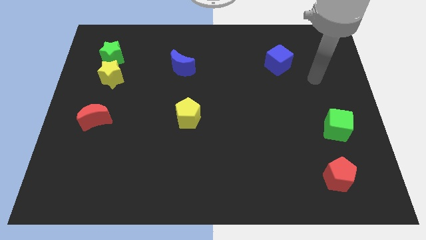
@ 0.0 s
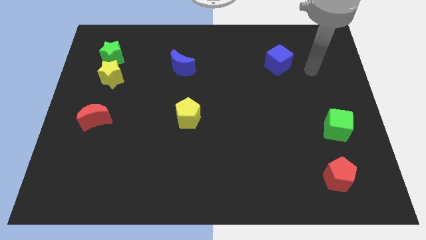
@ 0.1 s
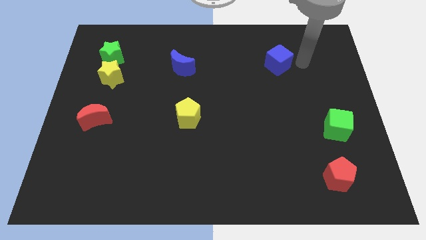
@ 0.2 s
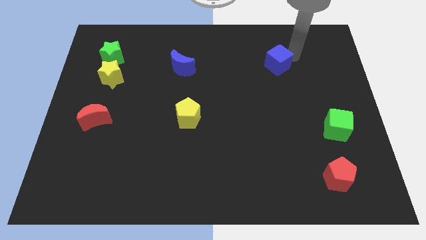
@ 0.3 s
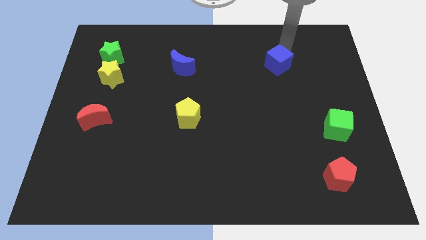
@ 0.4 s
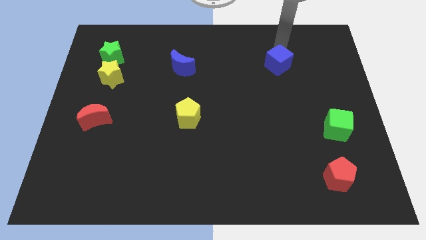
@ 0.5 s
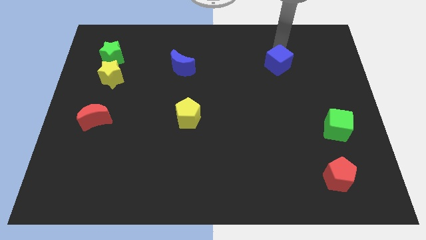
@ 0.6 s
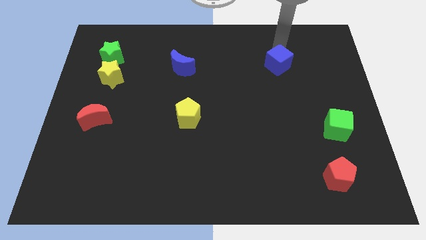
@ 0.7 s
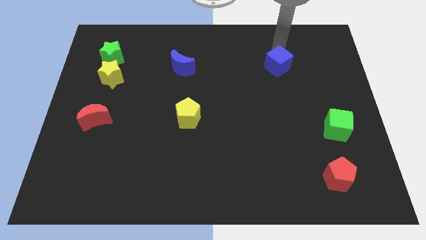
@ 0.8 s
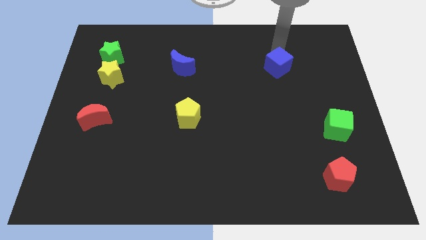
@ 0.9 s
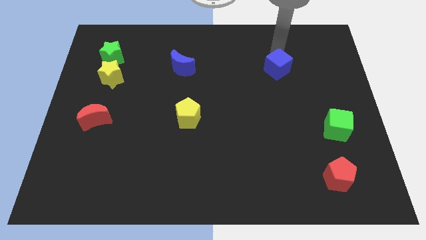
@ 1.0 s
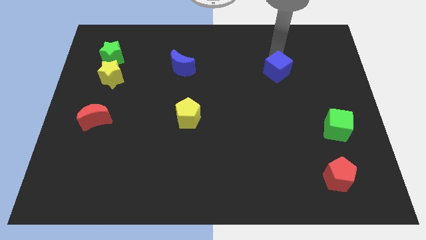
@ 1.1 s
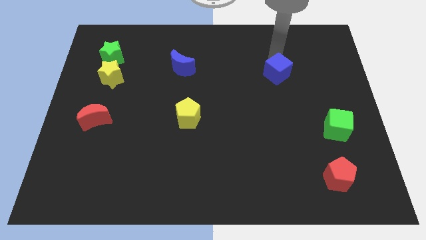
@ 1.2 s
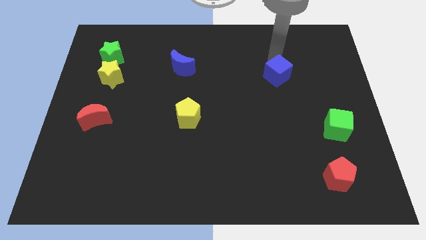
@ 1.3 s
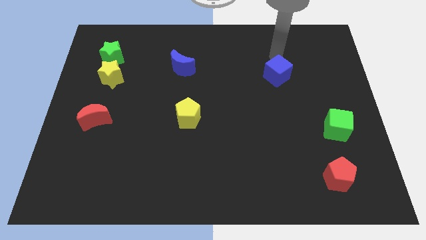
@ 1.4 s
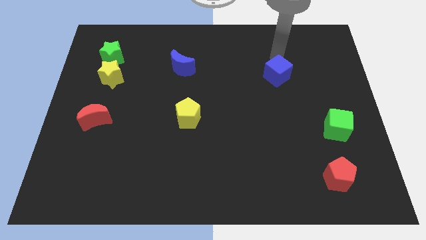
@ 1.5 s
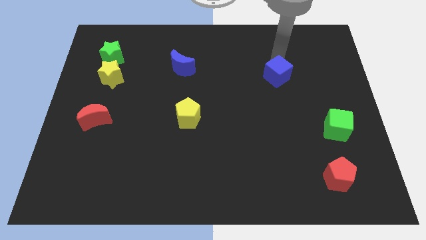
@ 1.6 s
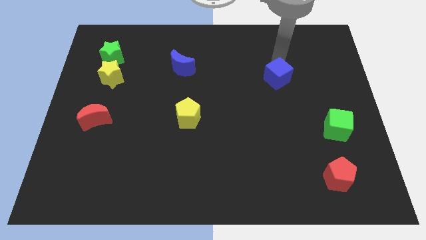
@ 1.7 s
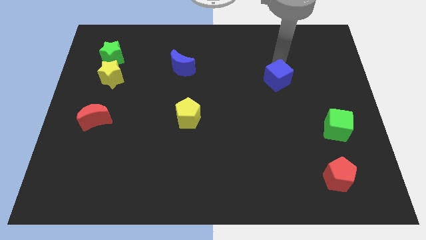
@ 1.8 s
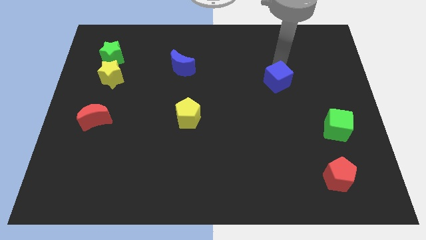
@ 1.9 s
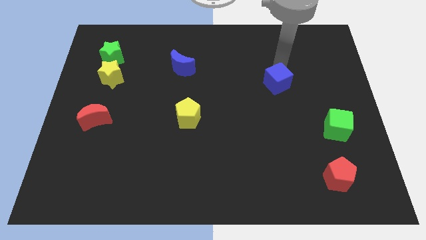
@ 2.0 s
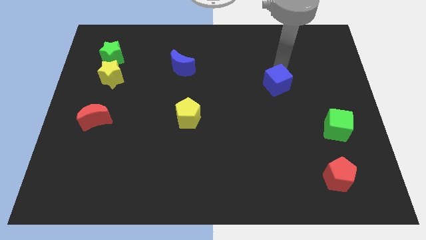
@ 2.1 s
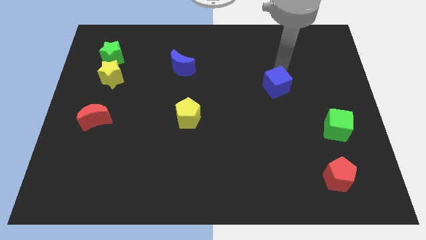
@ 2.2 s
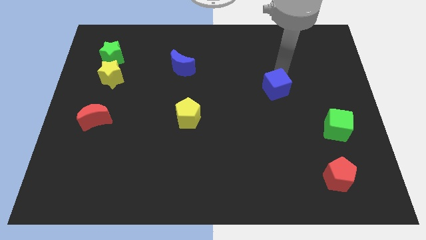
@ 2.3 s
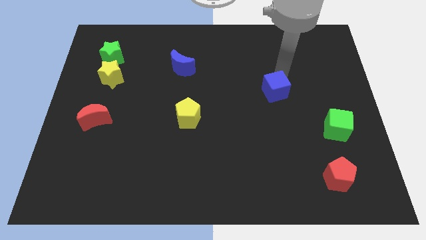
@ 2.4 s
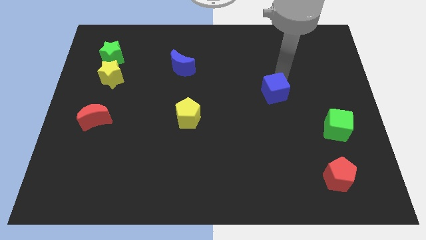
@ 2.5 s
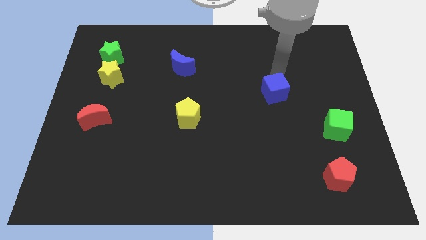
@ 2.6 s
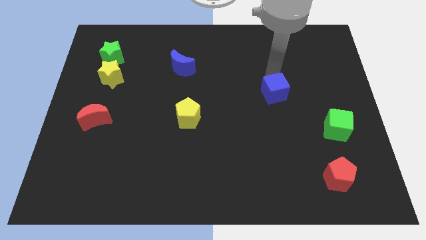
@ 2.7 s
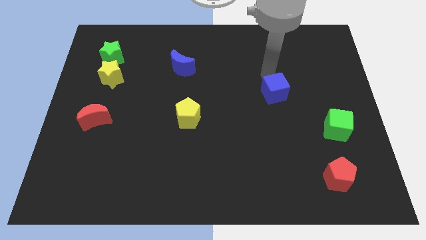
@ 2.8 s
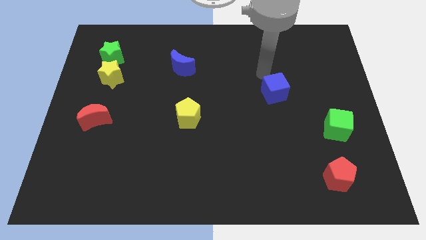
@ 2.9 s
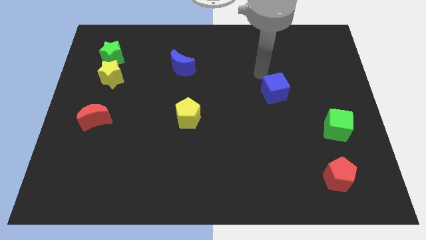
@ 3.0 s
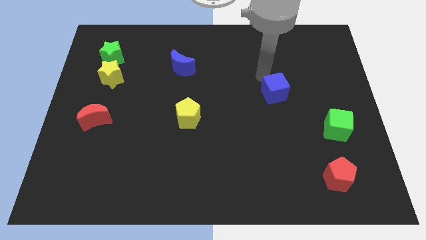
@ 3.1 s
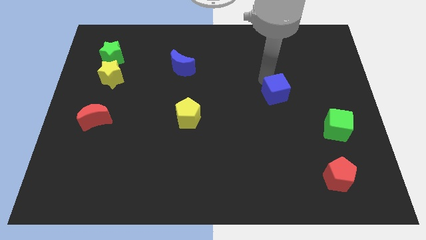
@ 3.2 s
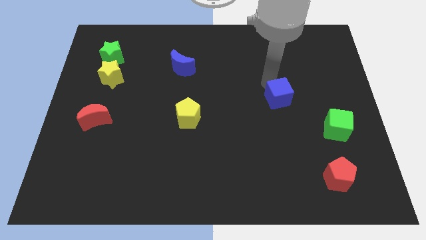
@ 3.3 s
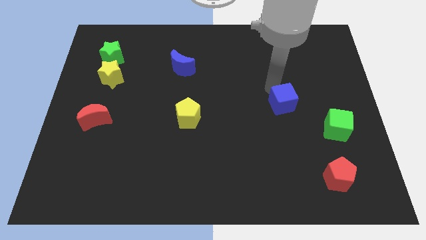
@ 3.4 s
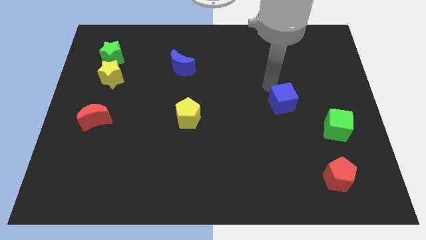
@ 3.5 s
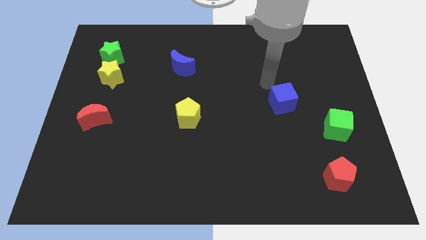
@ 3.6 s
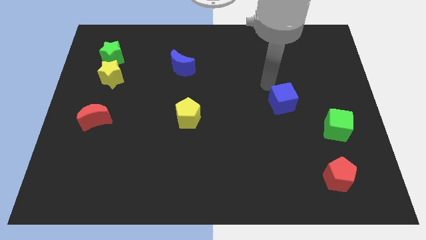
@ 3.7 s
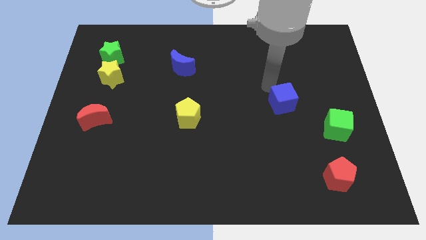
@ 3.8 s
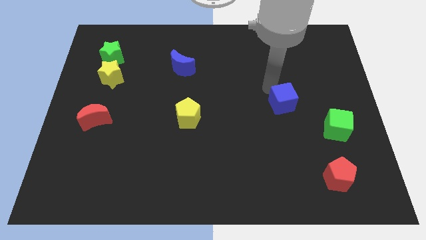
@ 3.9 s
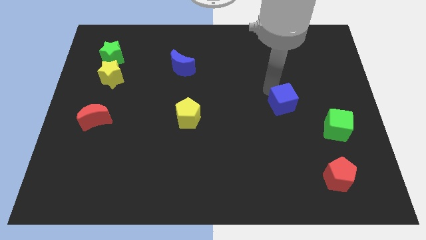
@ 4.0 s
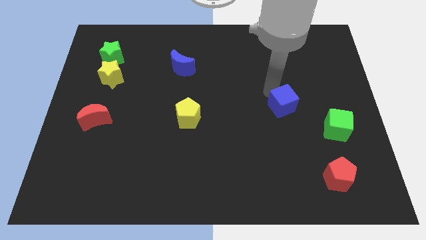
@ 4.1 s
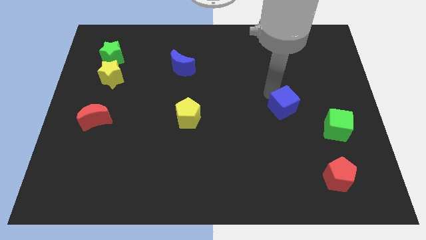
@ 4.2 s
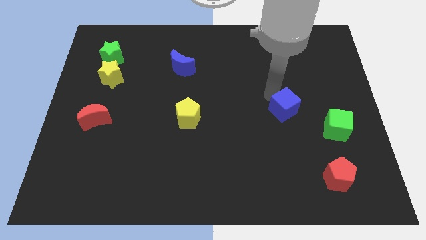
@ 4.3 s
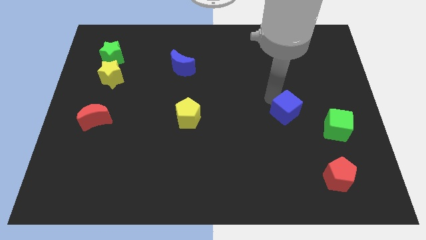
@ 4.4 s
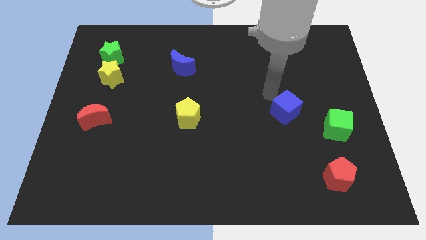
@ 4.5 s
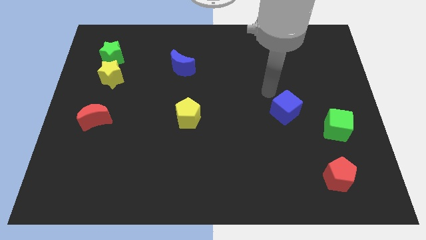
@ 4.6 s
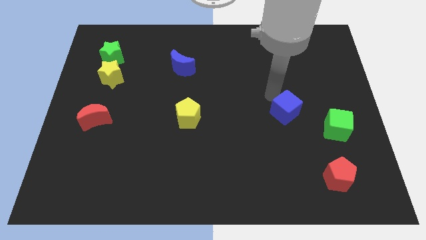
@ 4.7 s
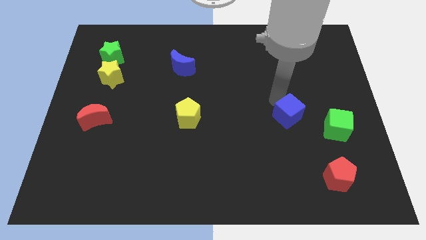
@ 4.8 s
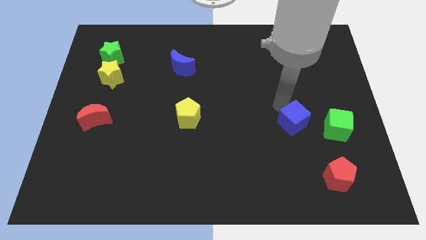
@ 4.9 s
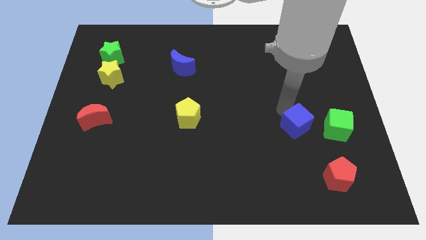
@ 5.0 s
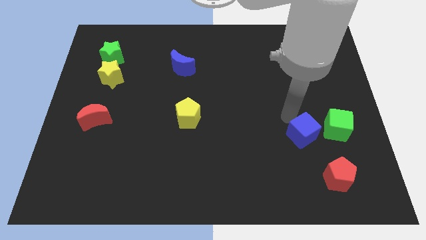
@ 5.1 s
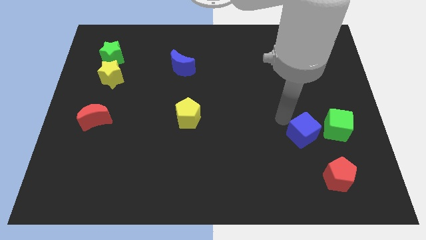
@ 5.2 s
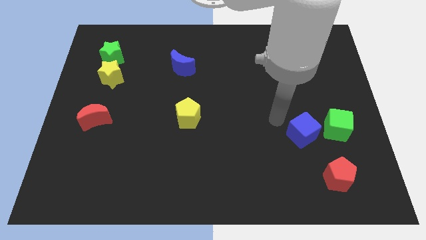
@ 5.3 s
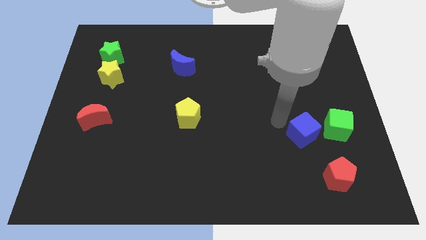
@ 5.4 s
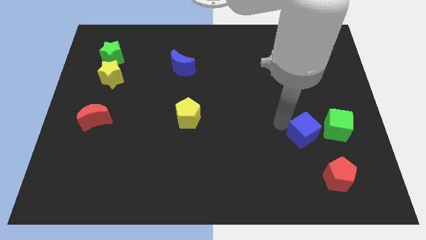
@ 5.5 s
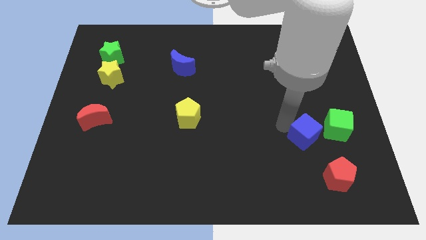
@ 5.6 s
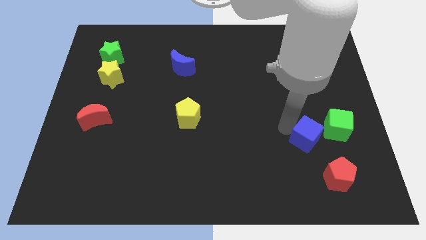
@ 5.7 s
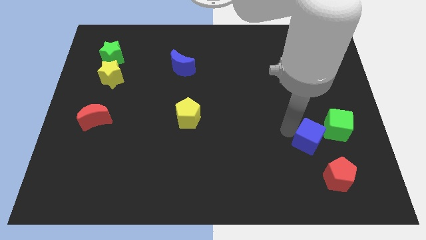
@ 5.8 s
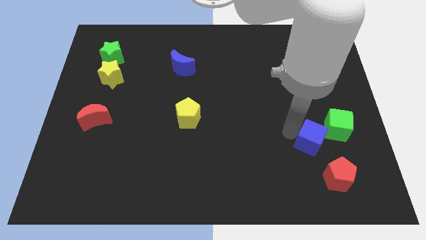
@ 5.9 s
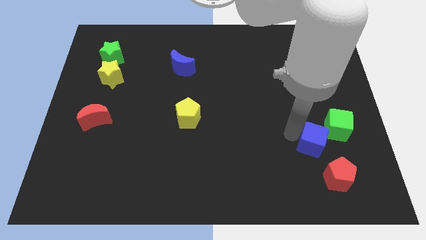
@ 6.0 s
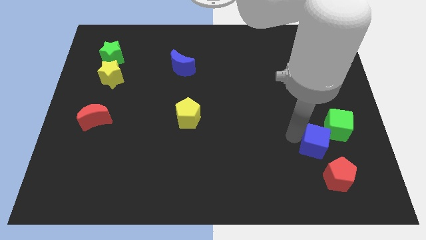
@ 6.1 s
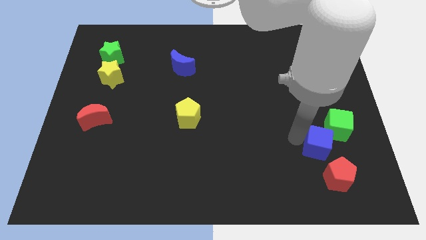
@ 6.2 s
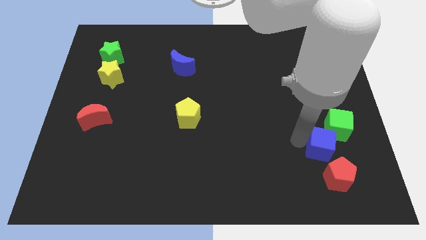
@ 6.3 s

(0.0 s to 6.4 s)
slide the blue cube to the bottom of the green cube

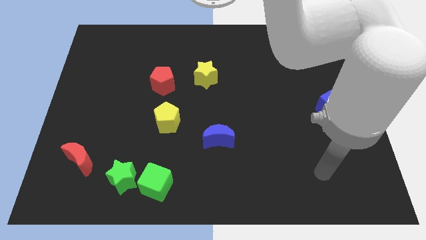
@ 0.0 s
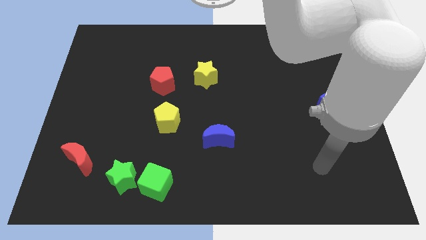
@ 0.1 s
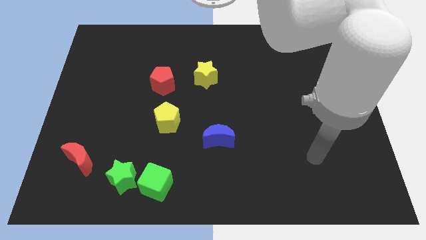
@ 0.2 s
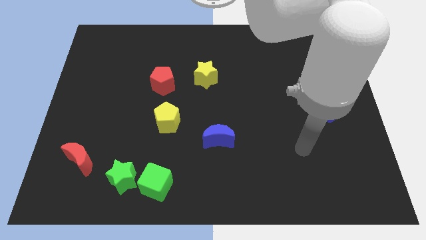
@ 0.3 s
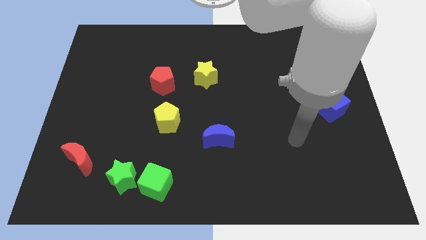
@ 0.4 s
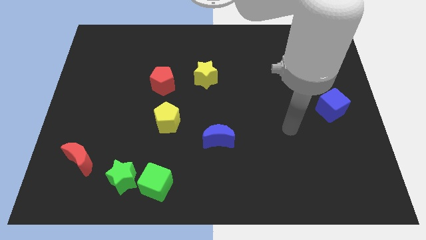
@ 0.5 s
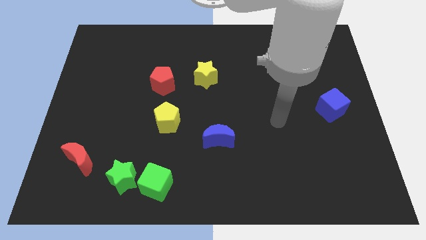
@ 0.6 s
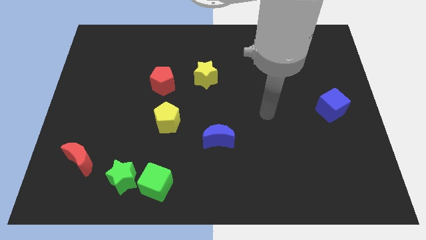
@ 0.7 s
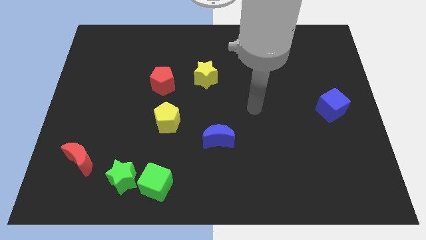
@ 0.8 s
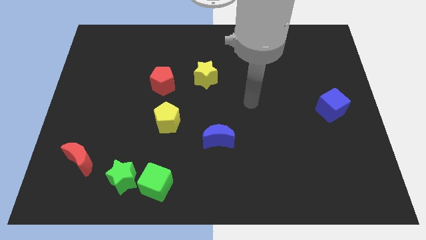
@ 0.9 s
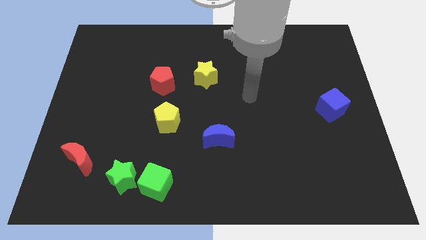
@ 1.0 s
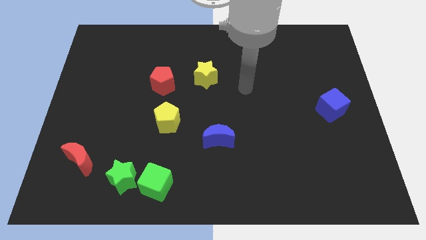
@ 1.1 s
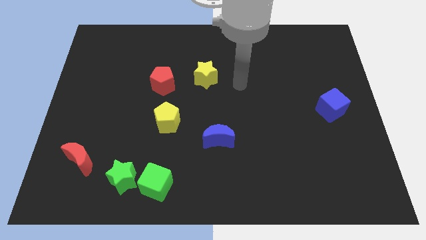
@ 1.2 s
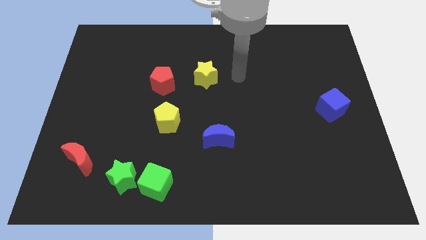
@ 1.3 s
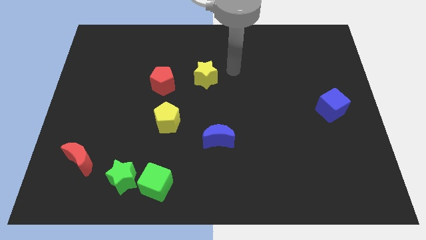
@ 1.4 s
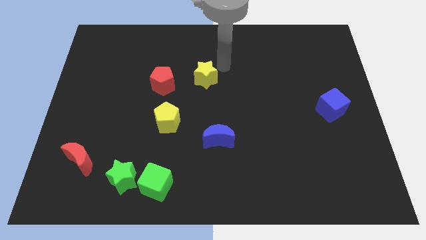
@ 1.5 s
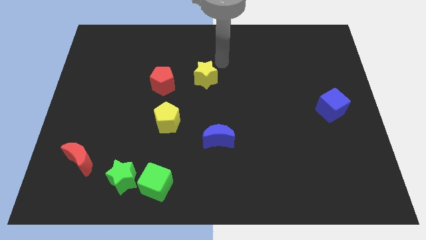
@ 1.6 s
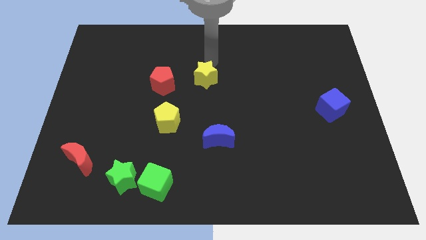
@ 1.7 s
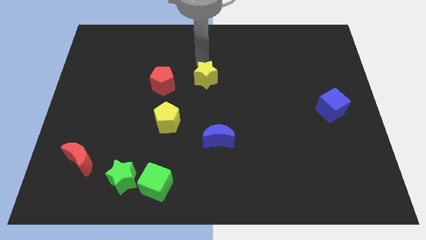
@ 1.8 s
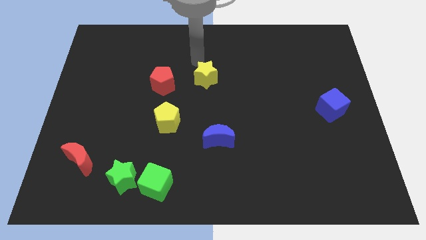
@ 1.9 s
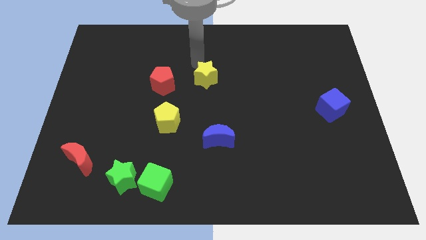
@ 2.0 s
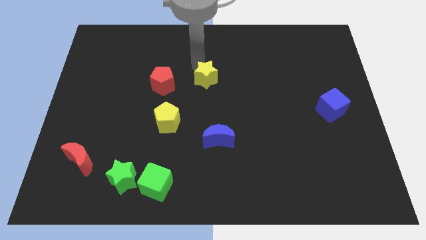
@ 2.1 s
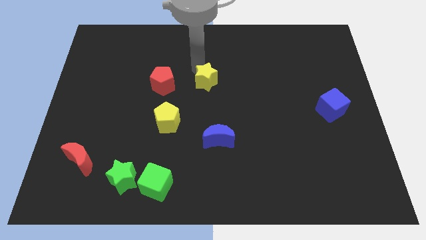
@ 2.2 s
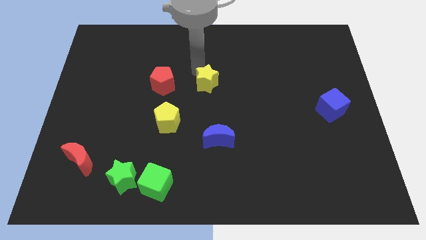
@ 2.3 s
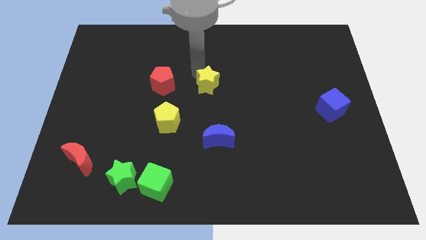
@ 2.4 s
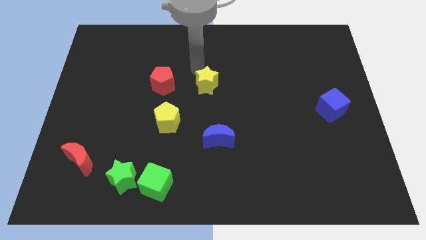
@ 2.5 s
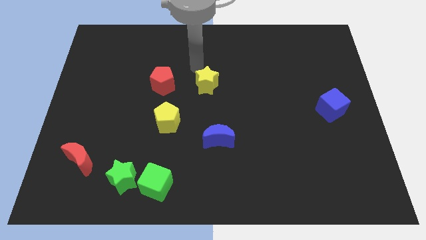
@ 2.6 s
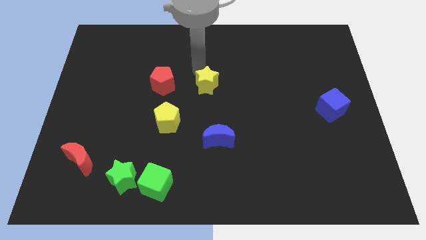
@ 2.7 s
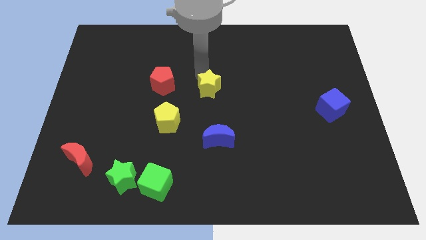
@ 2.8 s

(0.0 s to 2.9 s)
slide the yellow star above the blue moon
